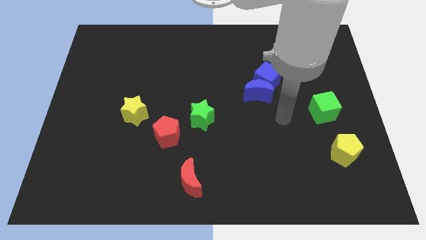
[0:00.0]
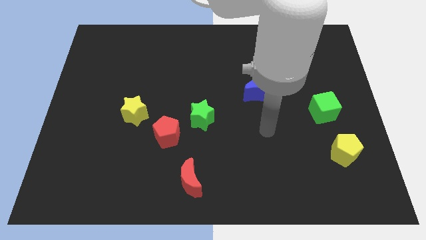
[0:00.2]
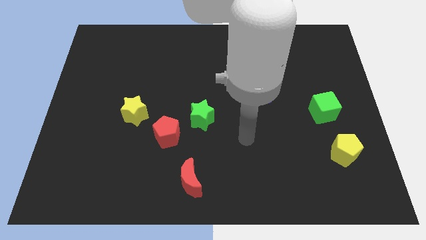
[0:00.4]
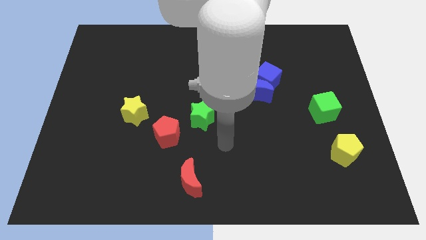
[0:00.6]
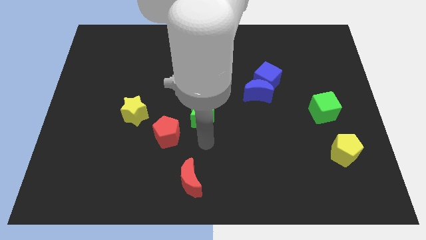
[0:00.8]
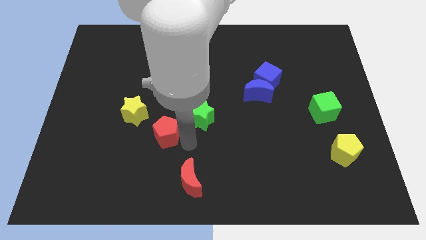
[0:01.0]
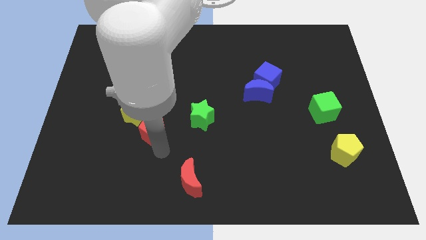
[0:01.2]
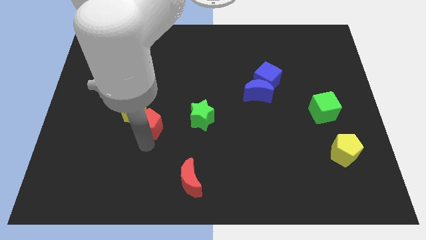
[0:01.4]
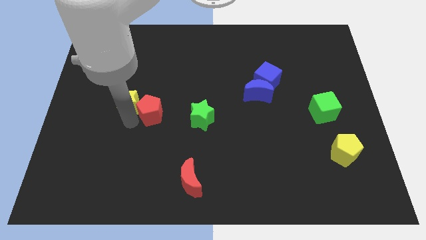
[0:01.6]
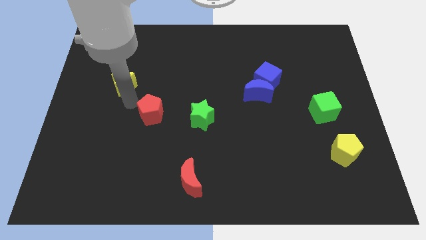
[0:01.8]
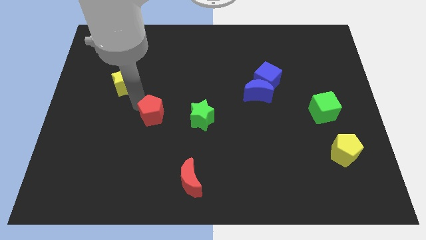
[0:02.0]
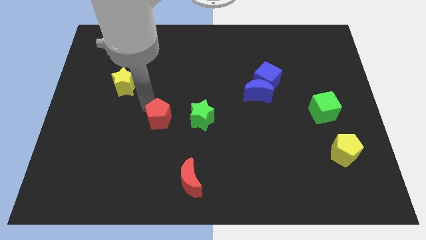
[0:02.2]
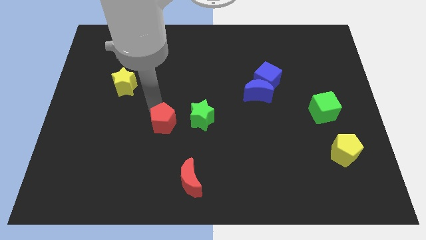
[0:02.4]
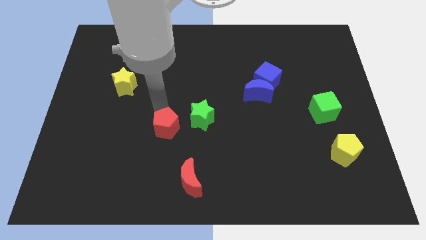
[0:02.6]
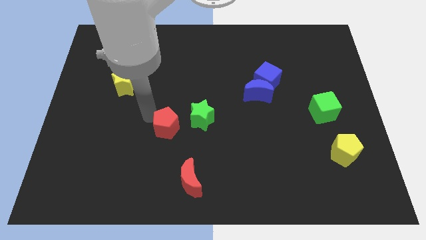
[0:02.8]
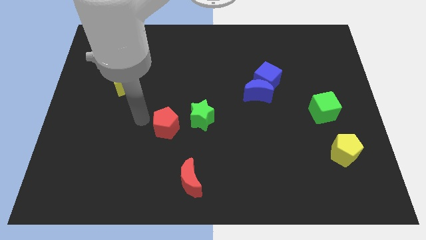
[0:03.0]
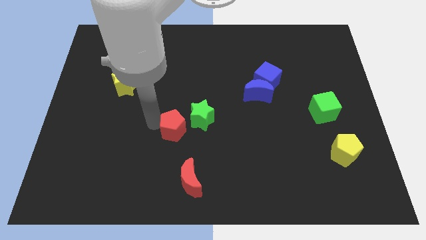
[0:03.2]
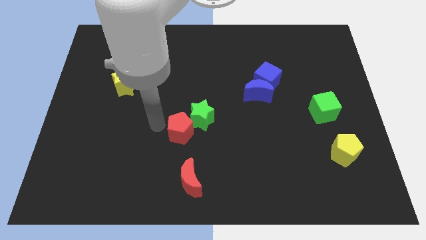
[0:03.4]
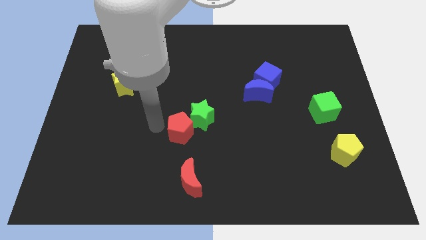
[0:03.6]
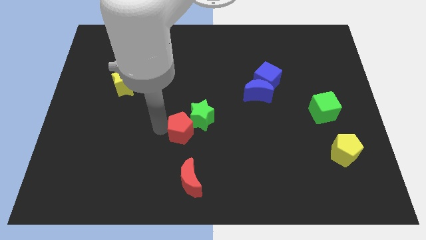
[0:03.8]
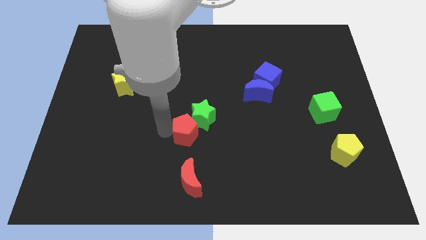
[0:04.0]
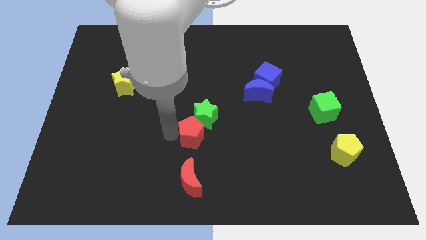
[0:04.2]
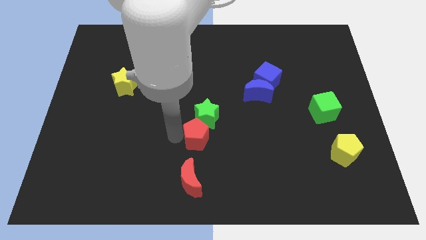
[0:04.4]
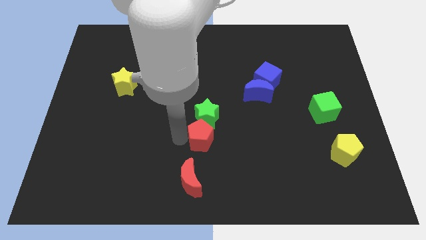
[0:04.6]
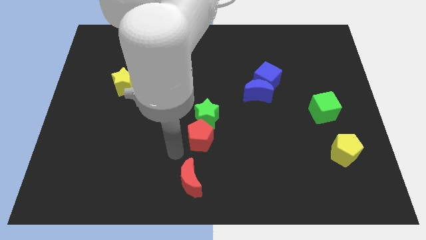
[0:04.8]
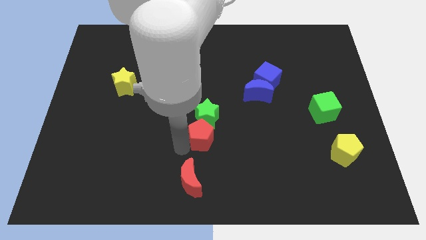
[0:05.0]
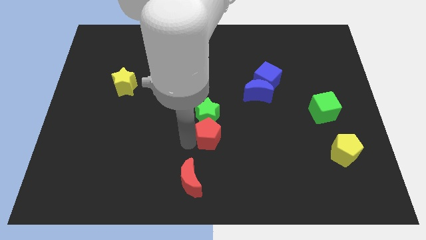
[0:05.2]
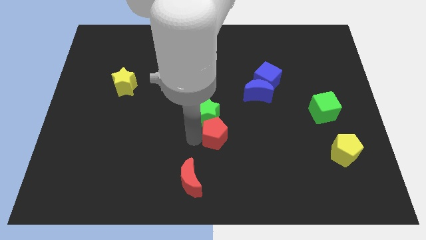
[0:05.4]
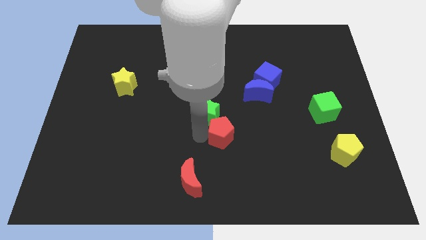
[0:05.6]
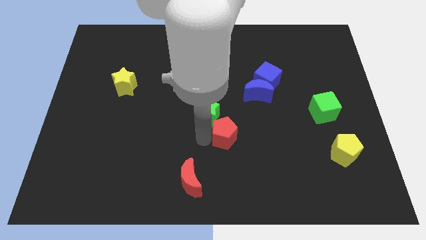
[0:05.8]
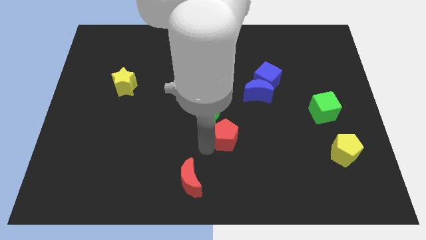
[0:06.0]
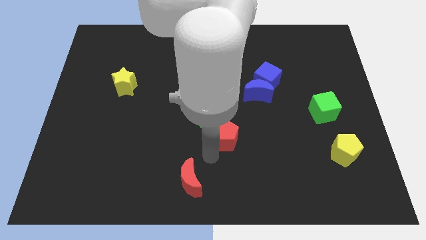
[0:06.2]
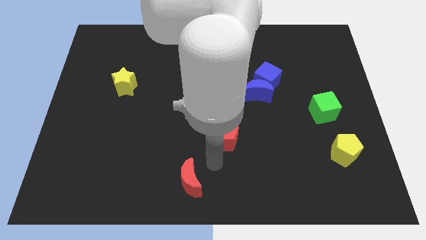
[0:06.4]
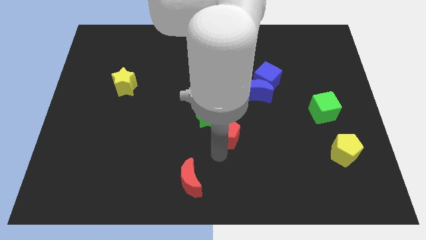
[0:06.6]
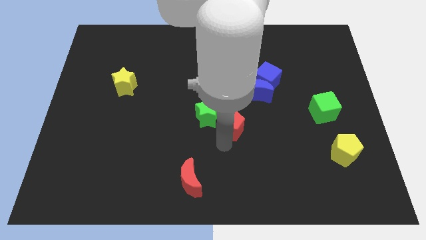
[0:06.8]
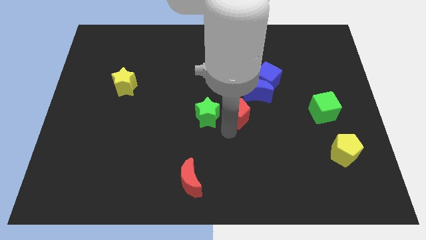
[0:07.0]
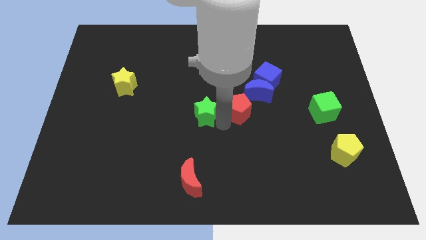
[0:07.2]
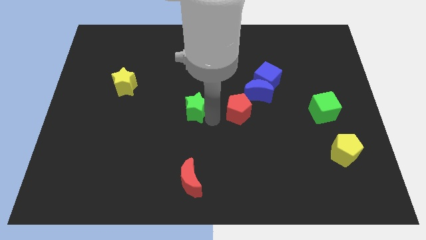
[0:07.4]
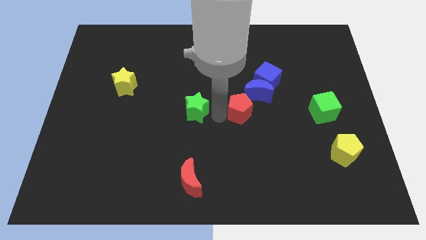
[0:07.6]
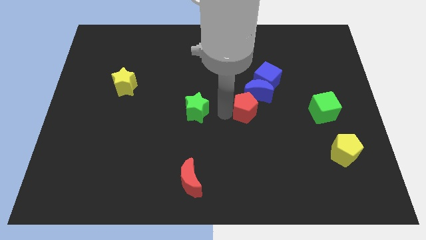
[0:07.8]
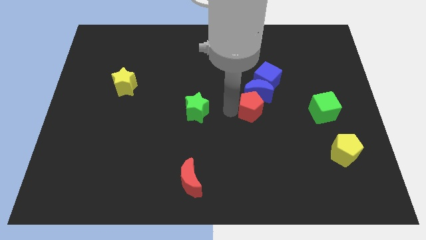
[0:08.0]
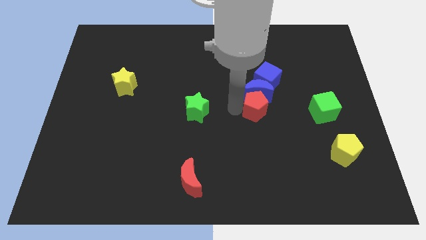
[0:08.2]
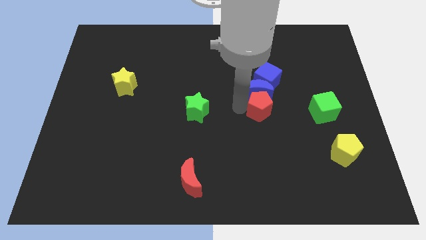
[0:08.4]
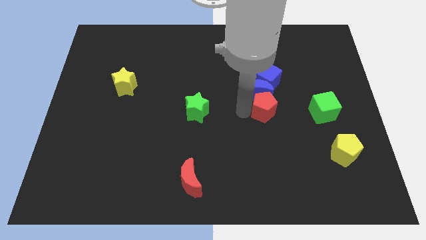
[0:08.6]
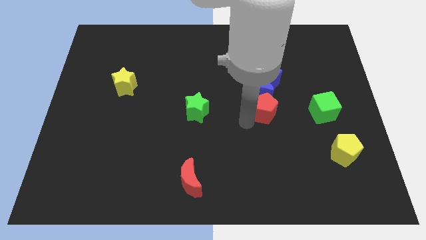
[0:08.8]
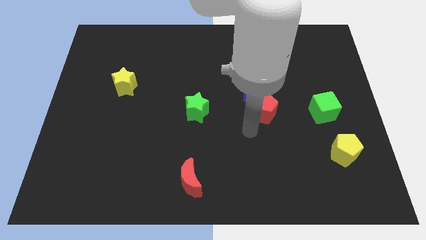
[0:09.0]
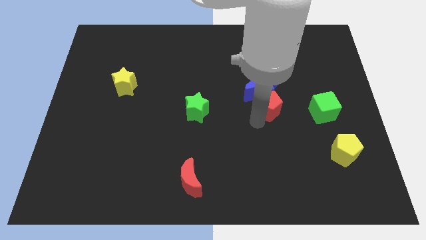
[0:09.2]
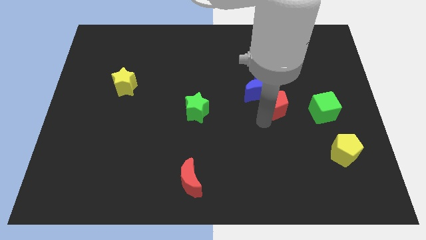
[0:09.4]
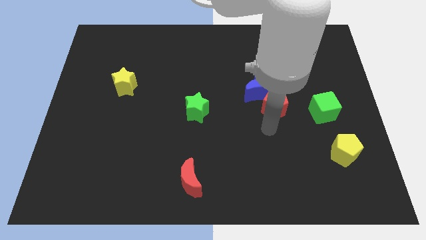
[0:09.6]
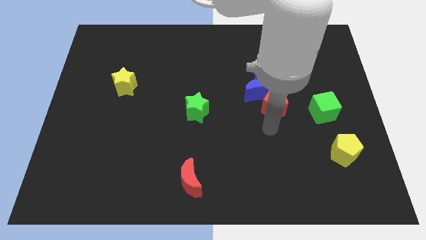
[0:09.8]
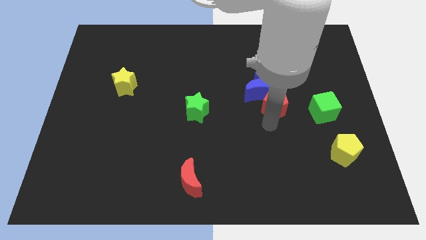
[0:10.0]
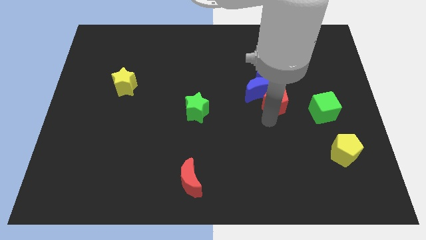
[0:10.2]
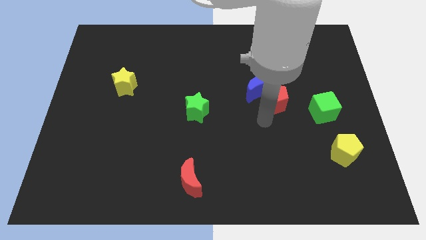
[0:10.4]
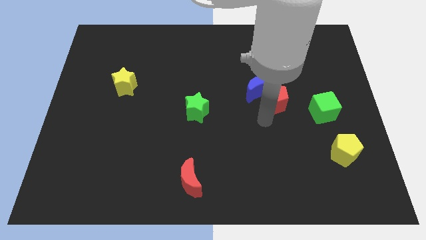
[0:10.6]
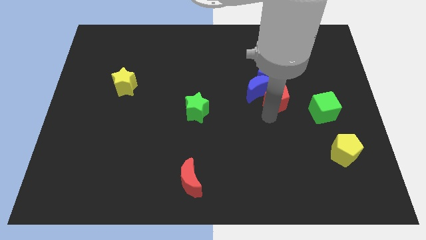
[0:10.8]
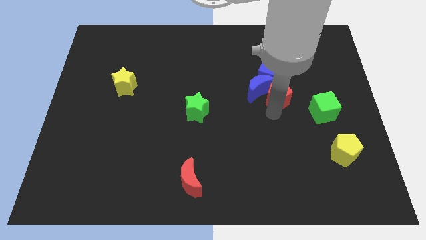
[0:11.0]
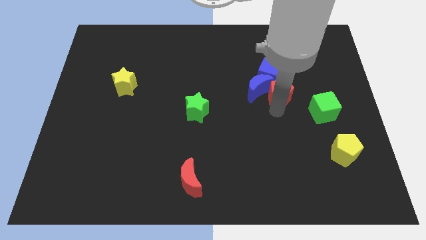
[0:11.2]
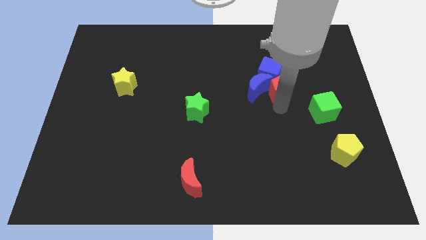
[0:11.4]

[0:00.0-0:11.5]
move the red pentagon to the top right of the blue moon

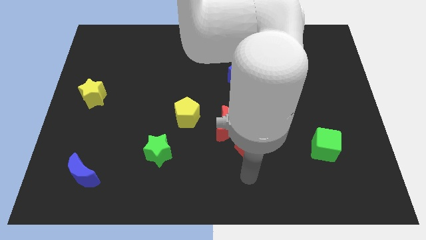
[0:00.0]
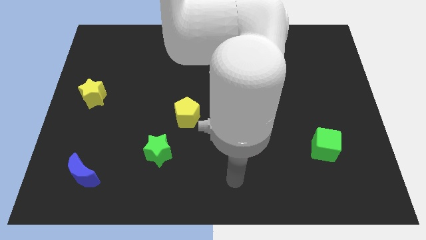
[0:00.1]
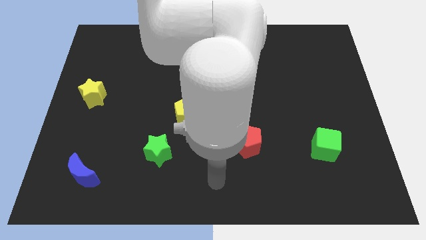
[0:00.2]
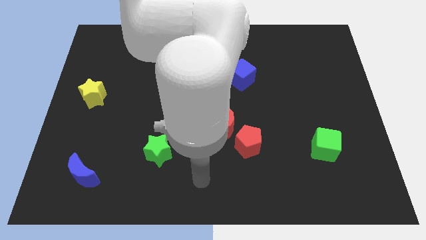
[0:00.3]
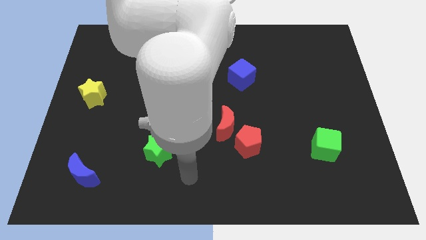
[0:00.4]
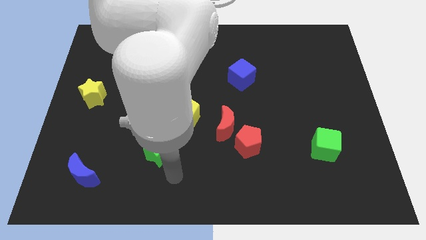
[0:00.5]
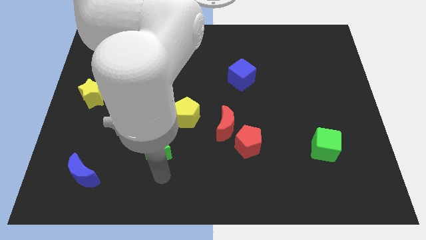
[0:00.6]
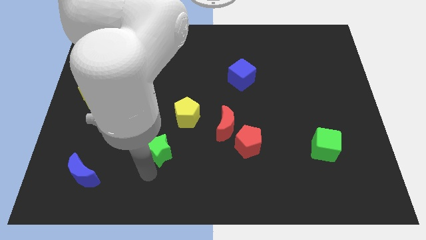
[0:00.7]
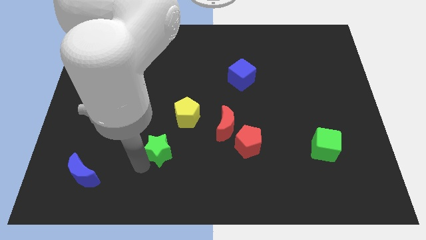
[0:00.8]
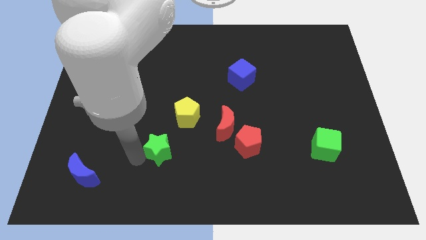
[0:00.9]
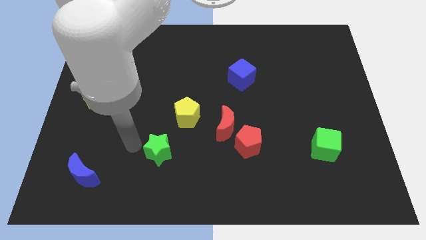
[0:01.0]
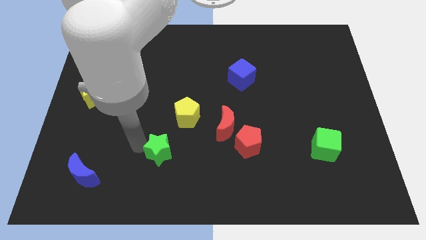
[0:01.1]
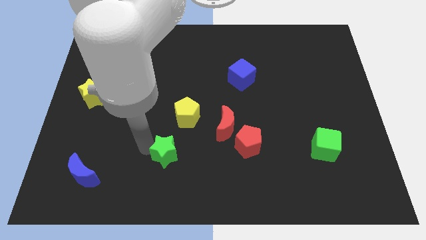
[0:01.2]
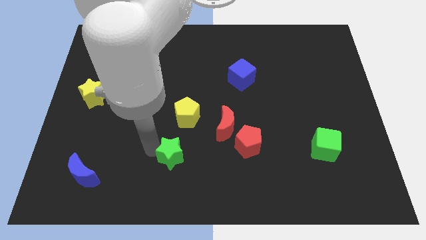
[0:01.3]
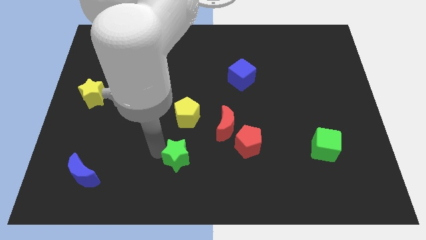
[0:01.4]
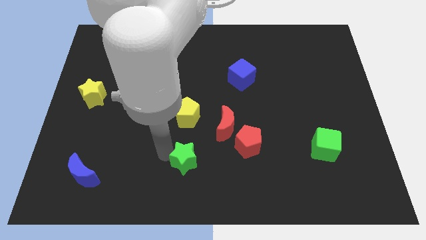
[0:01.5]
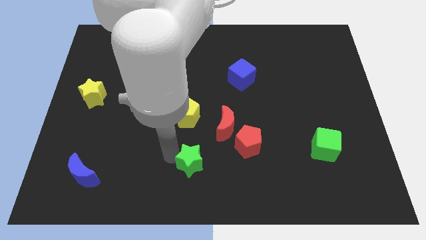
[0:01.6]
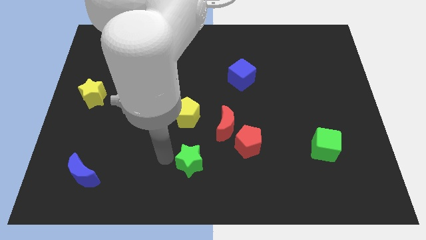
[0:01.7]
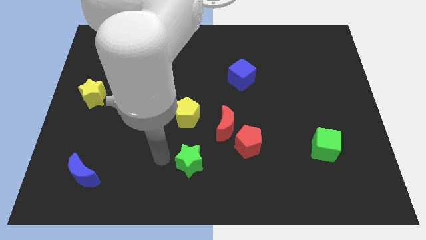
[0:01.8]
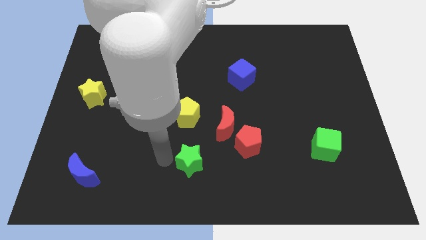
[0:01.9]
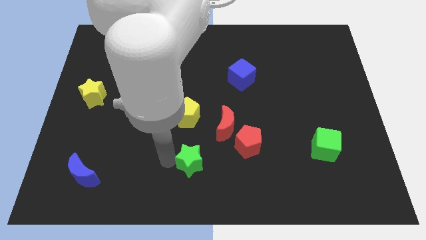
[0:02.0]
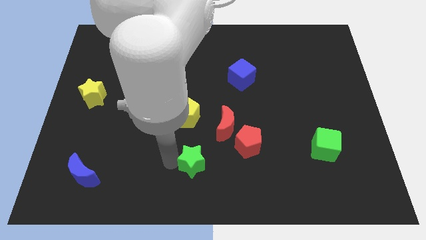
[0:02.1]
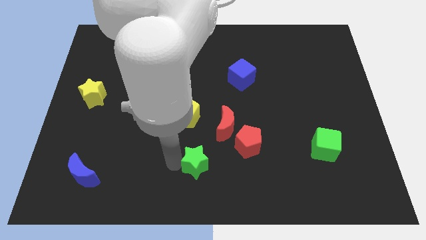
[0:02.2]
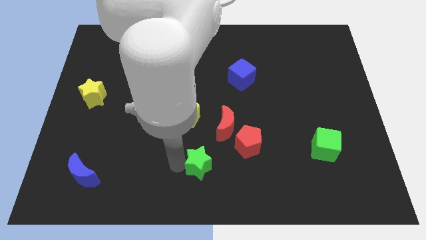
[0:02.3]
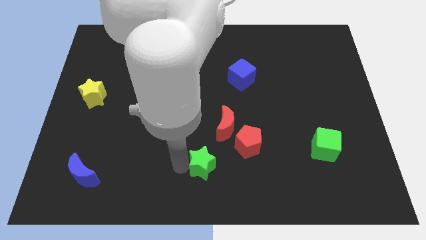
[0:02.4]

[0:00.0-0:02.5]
put the green star to the bottom of the red moon
